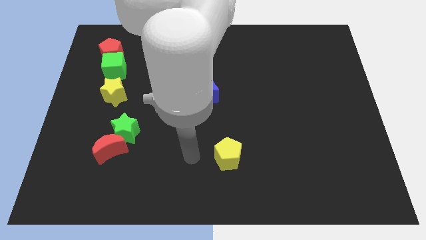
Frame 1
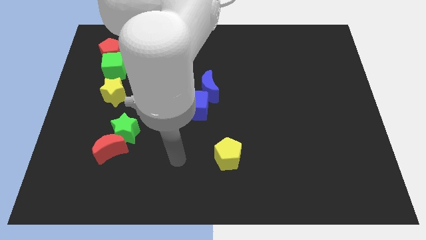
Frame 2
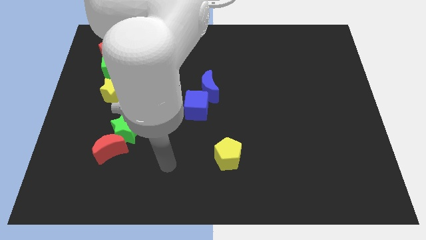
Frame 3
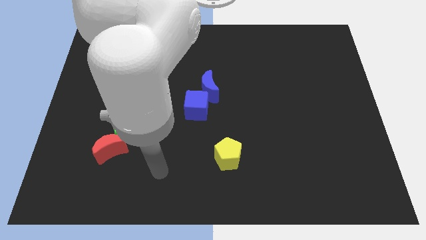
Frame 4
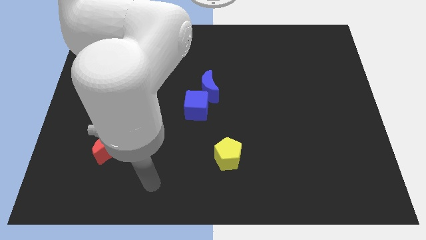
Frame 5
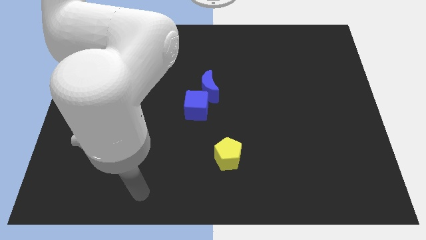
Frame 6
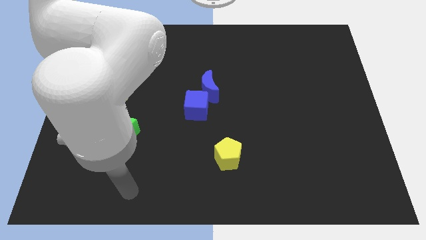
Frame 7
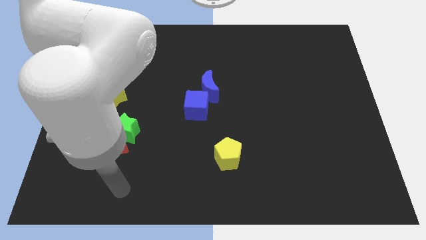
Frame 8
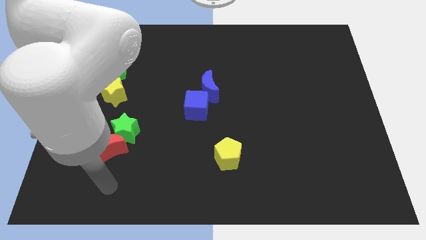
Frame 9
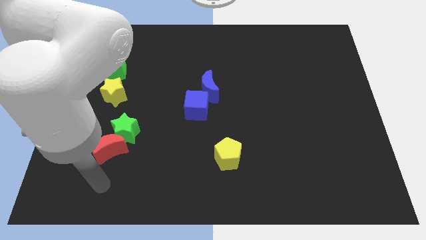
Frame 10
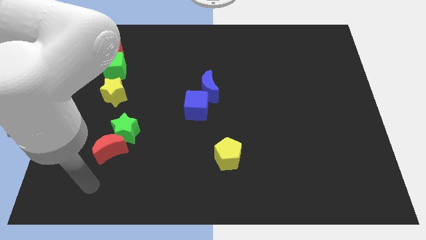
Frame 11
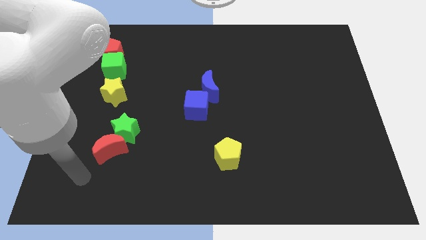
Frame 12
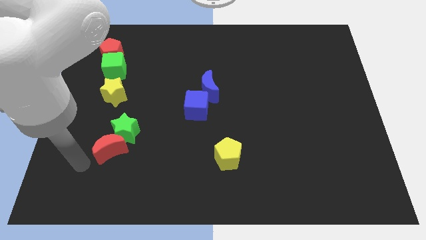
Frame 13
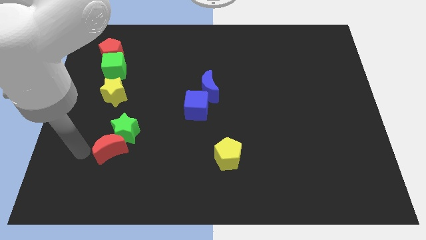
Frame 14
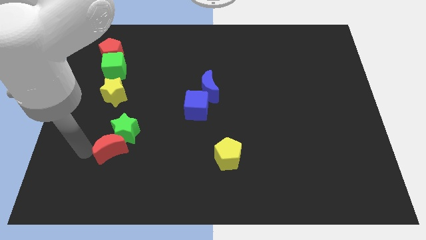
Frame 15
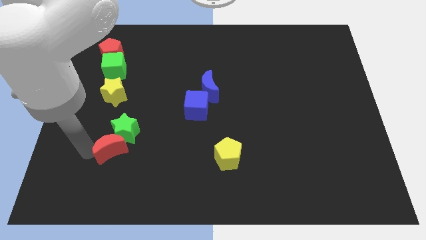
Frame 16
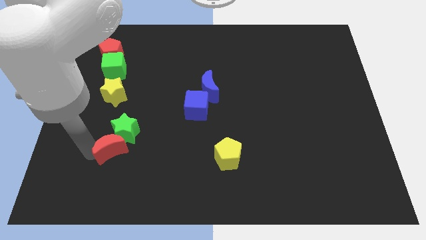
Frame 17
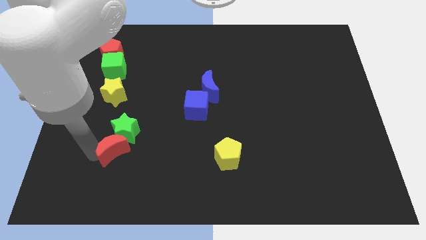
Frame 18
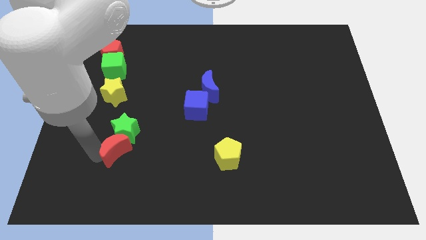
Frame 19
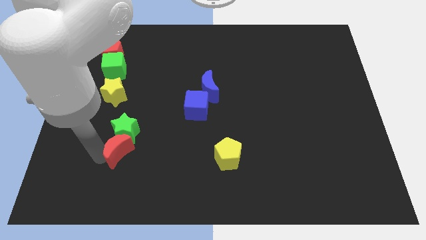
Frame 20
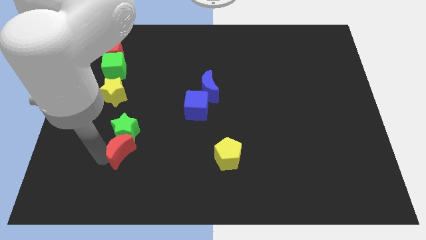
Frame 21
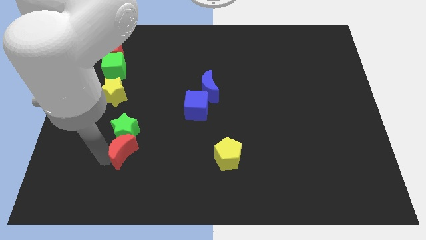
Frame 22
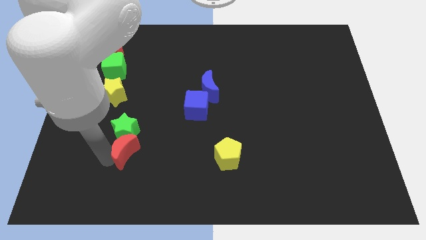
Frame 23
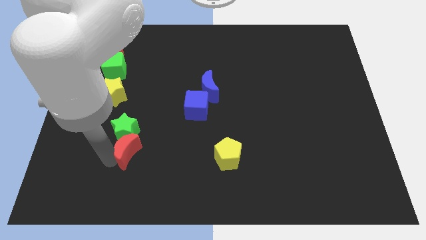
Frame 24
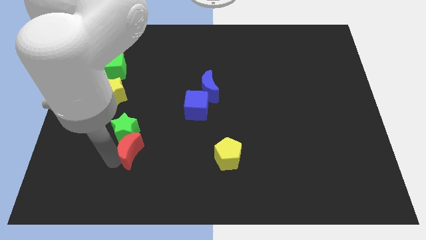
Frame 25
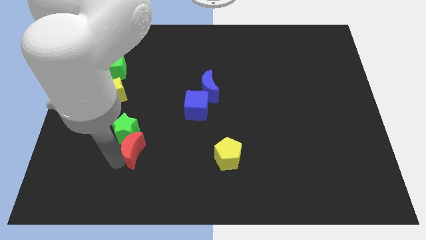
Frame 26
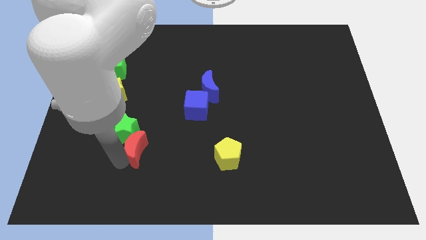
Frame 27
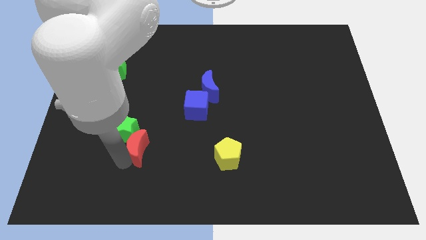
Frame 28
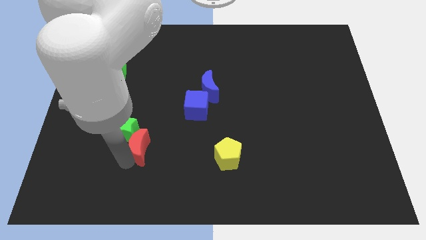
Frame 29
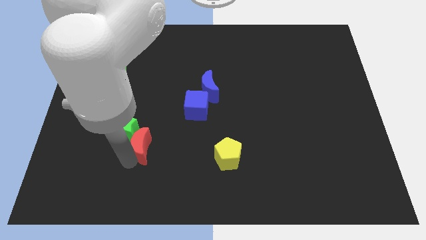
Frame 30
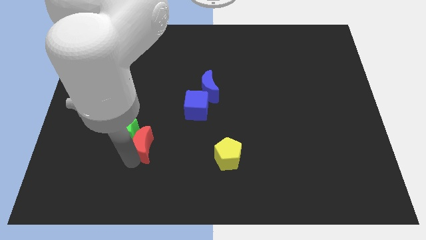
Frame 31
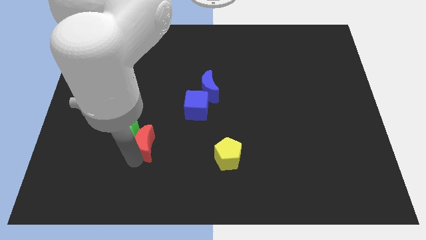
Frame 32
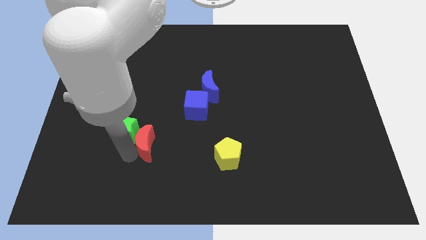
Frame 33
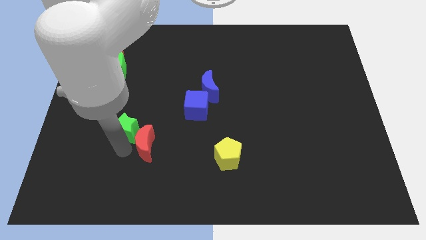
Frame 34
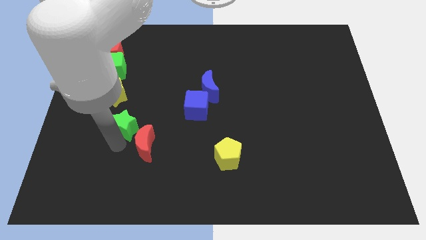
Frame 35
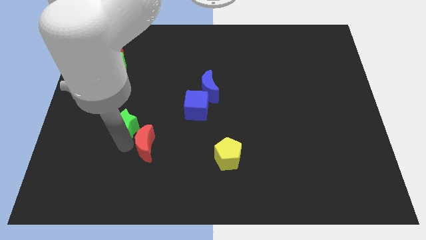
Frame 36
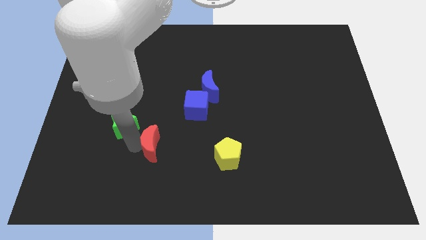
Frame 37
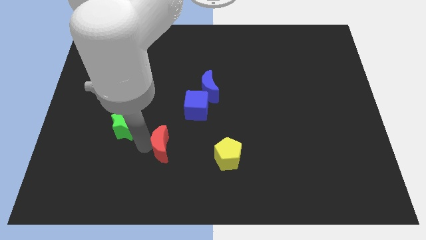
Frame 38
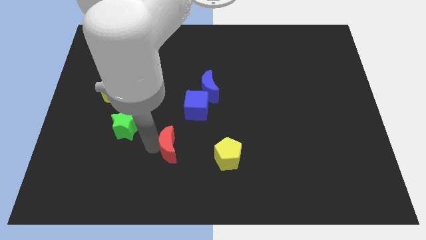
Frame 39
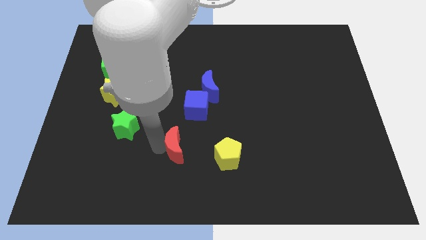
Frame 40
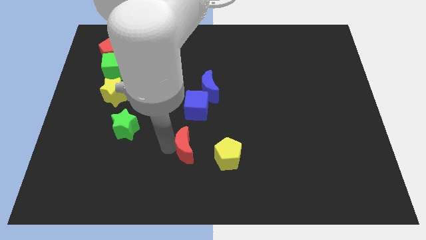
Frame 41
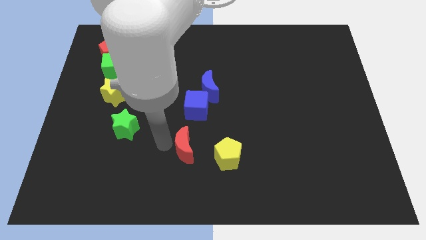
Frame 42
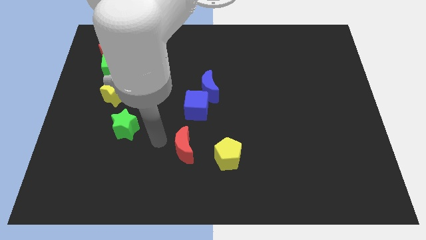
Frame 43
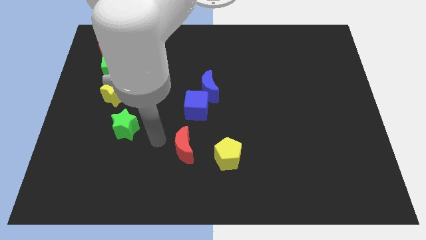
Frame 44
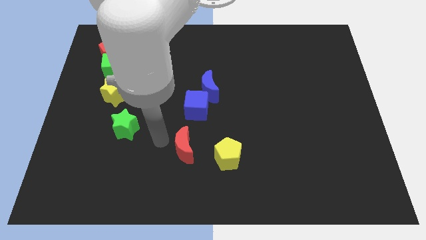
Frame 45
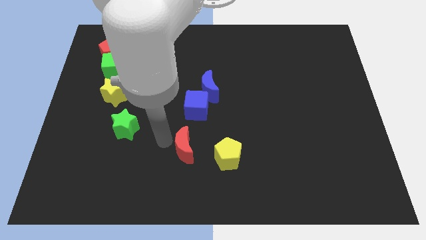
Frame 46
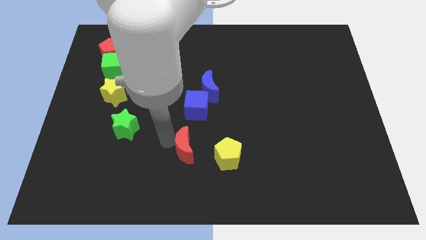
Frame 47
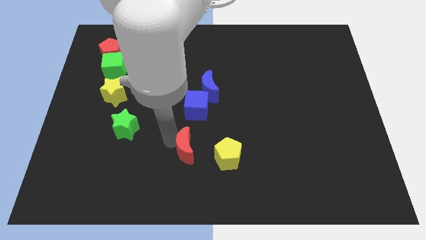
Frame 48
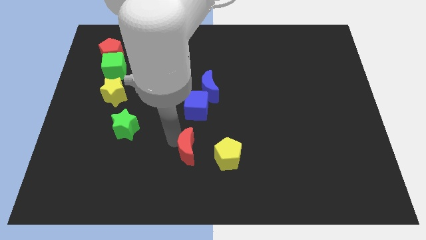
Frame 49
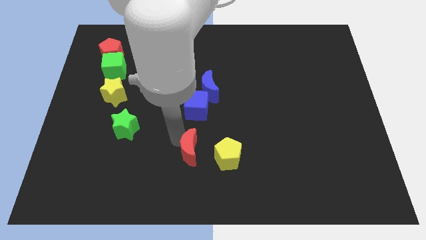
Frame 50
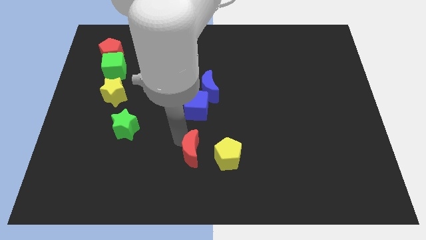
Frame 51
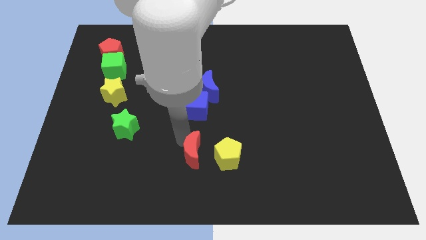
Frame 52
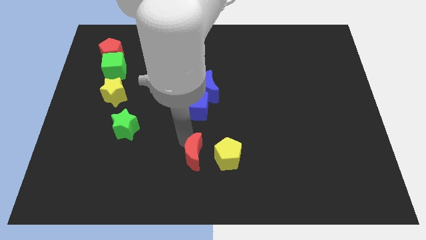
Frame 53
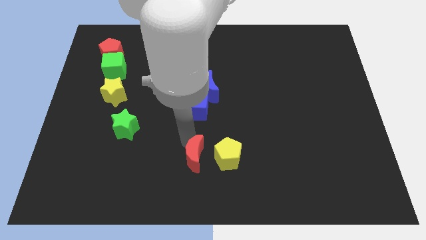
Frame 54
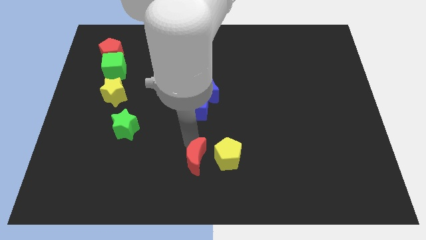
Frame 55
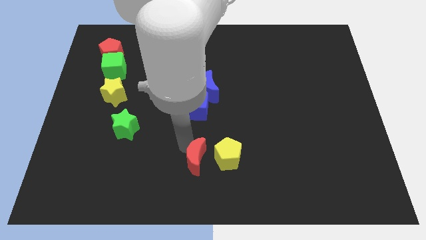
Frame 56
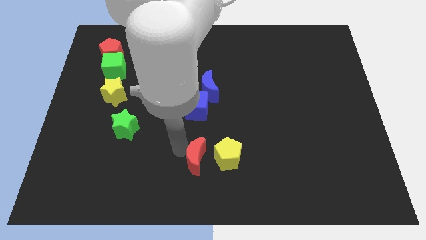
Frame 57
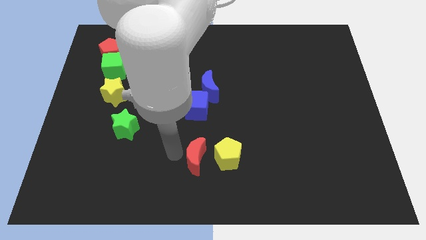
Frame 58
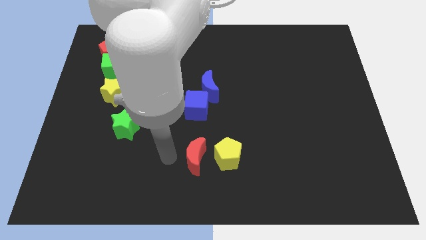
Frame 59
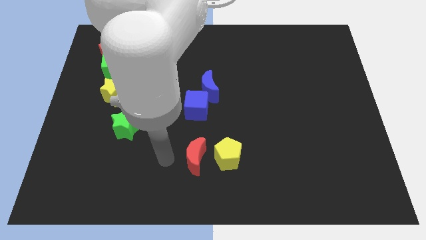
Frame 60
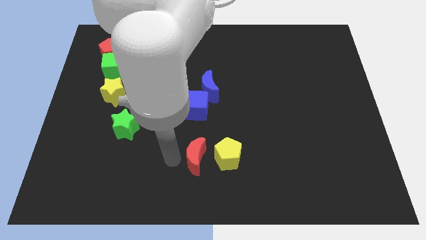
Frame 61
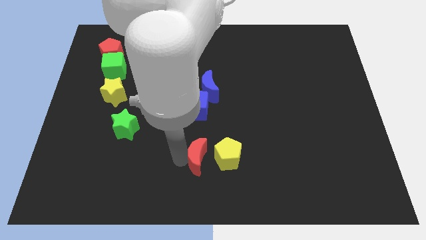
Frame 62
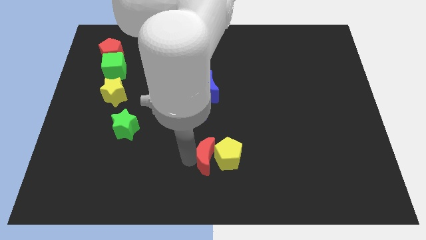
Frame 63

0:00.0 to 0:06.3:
push the red moon next to the yellow pentagon
